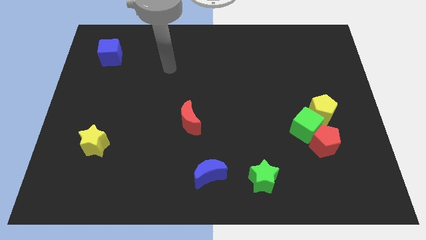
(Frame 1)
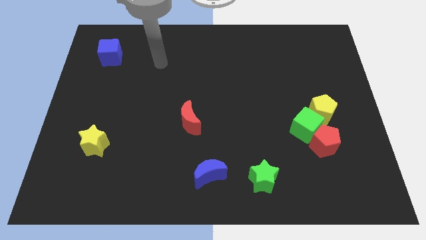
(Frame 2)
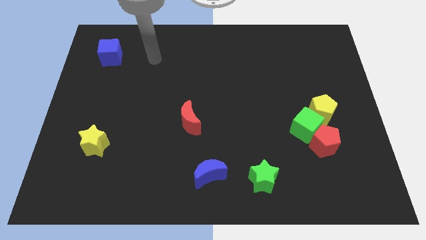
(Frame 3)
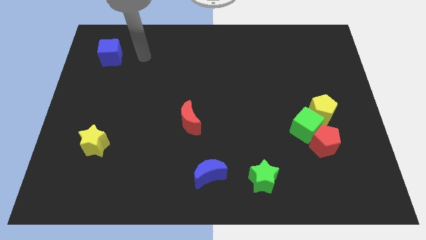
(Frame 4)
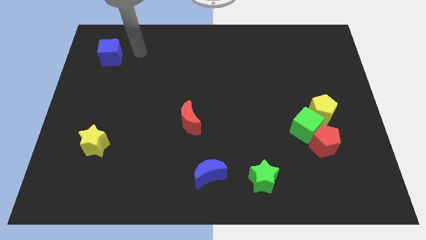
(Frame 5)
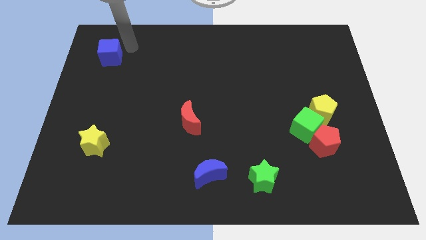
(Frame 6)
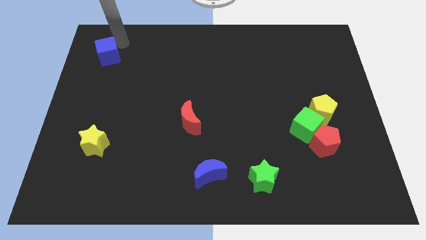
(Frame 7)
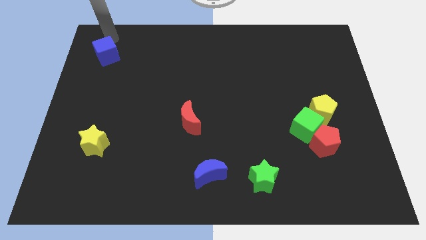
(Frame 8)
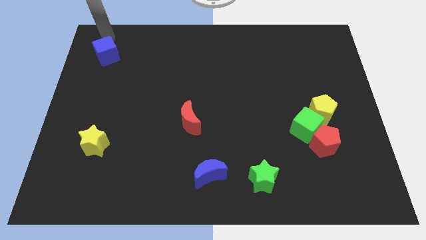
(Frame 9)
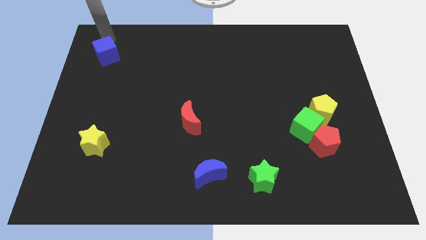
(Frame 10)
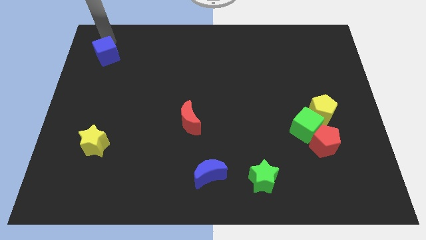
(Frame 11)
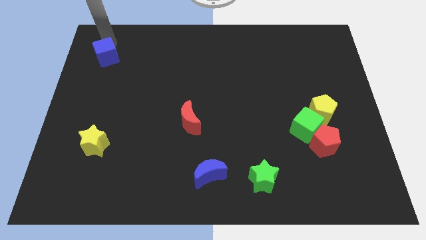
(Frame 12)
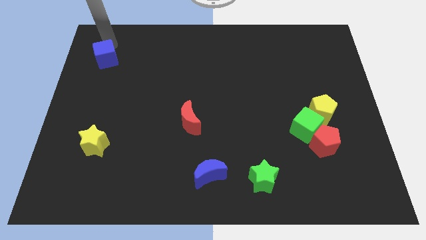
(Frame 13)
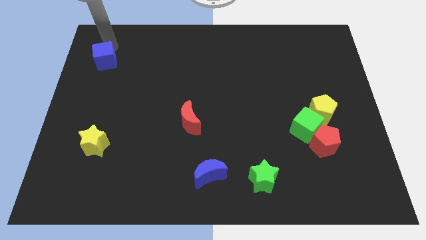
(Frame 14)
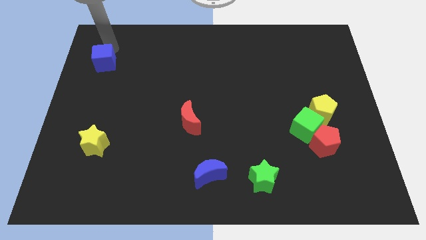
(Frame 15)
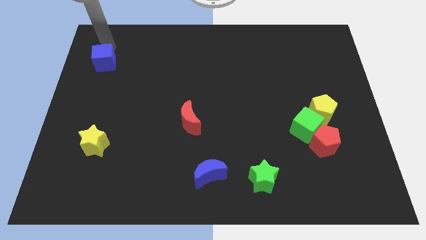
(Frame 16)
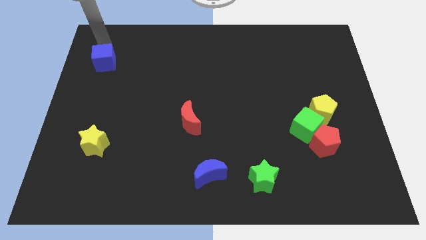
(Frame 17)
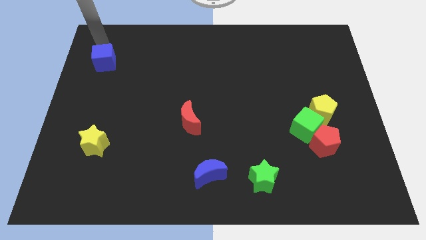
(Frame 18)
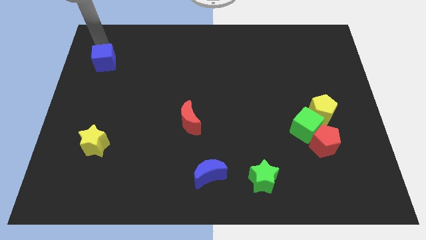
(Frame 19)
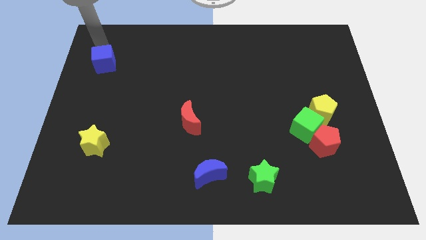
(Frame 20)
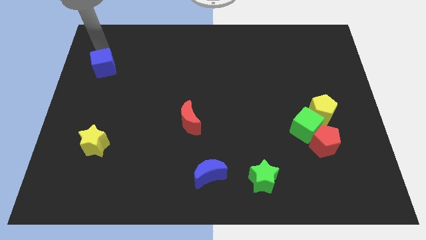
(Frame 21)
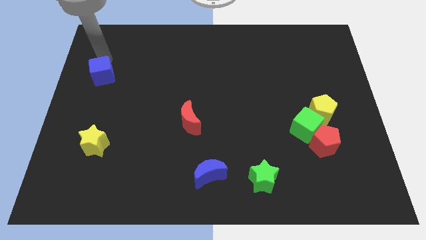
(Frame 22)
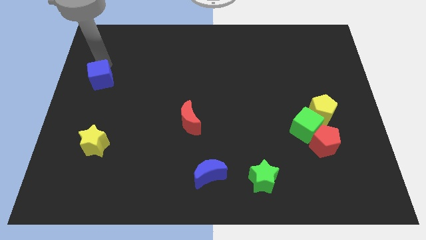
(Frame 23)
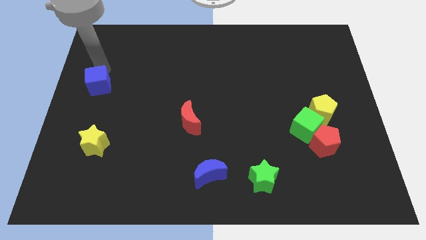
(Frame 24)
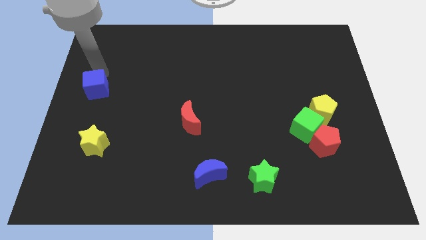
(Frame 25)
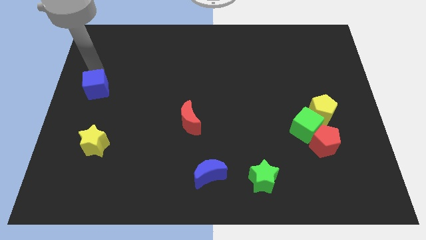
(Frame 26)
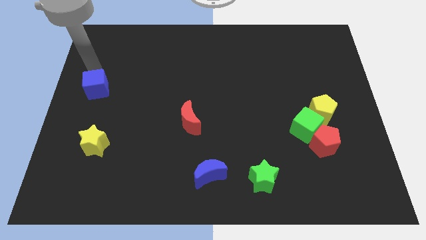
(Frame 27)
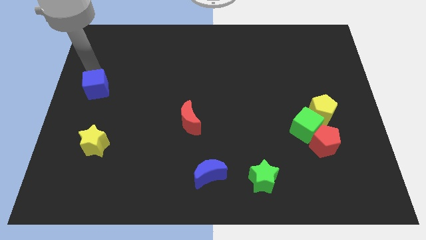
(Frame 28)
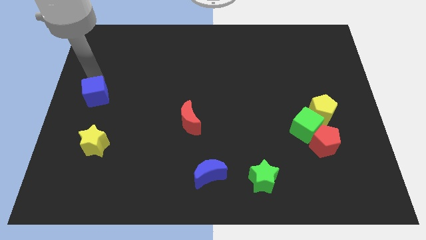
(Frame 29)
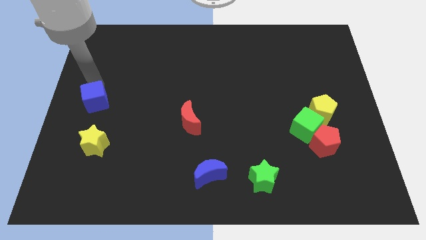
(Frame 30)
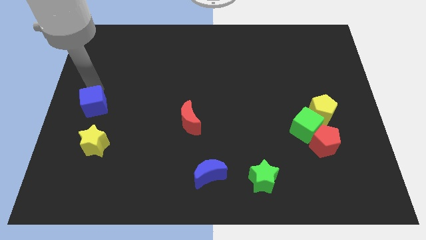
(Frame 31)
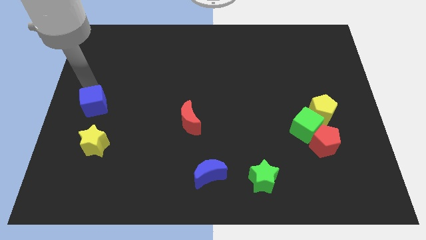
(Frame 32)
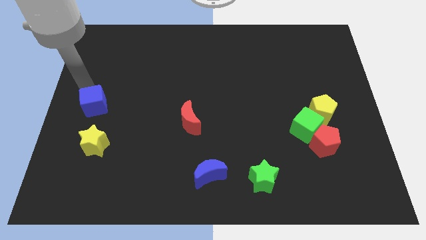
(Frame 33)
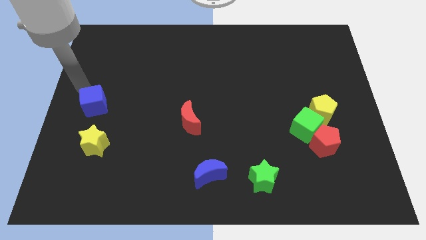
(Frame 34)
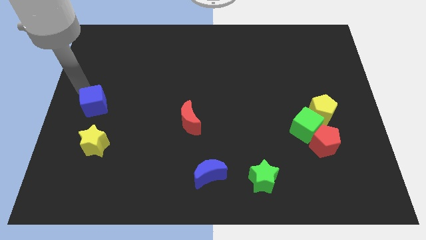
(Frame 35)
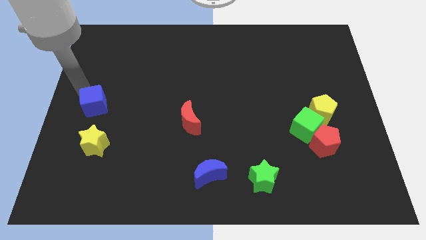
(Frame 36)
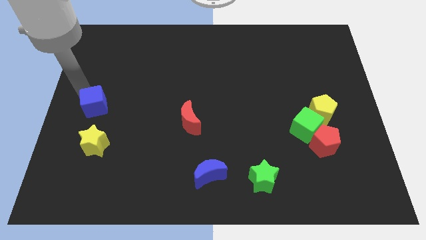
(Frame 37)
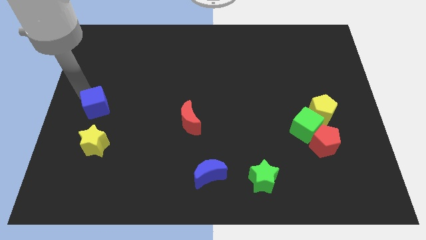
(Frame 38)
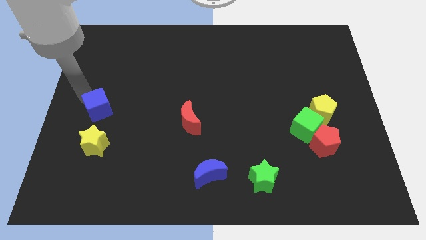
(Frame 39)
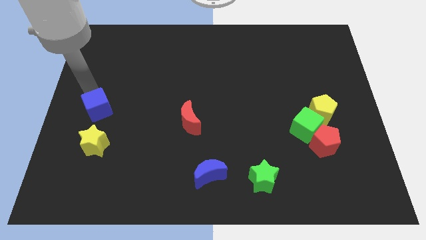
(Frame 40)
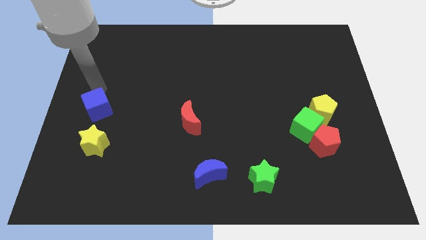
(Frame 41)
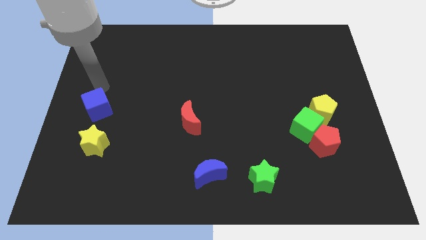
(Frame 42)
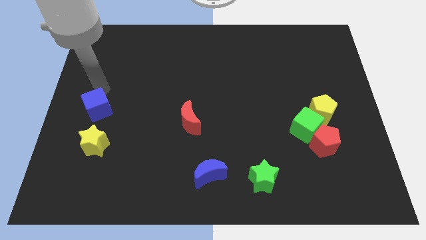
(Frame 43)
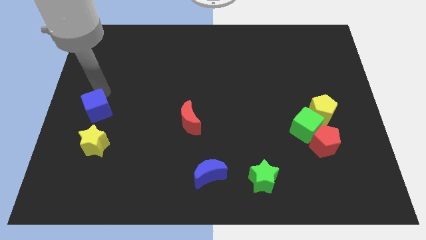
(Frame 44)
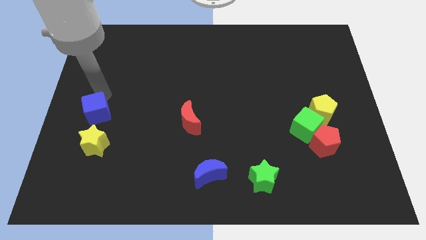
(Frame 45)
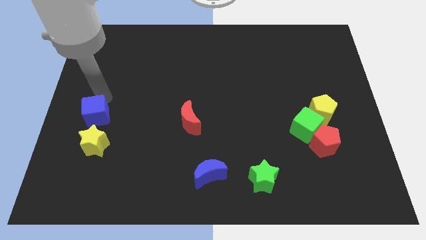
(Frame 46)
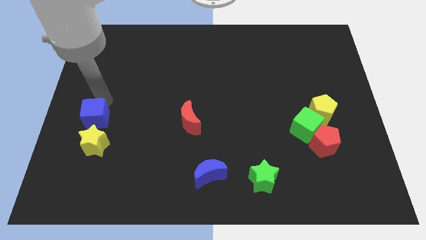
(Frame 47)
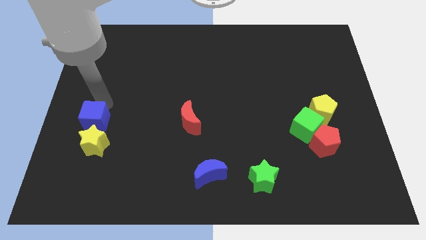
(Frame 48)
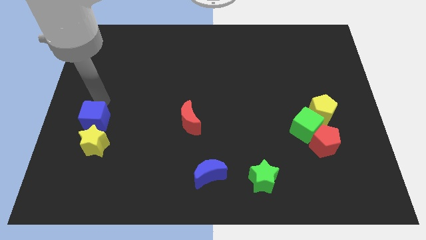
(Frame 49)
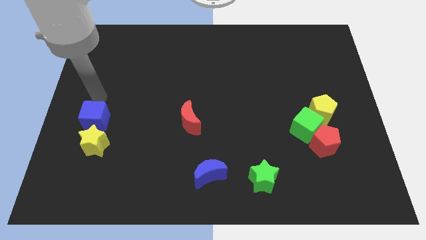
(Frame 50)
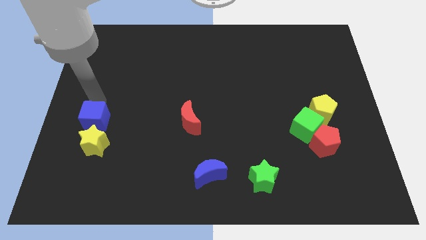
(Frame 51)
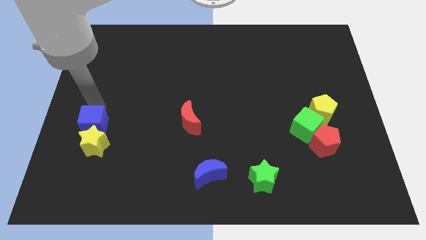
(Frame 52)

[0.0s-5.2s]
put the blue cube to the yellow star

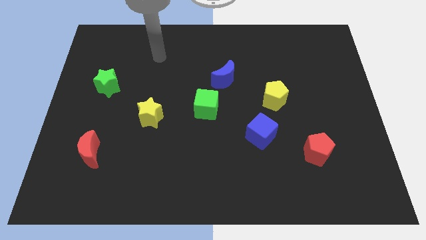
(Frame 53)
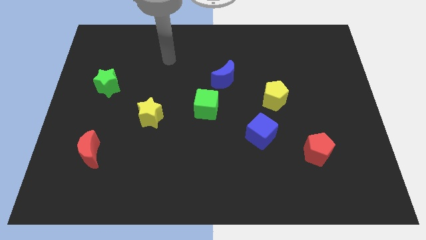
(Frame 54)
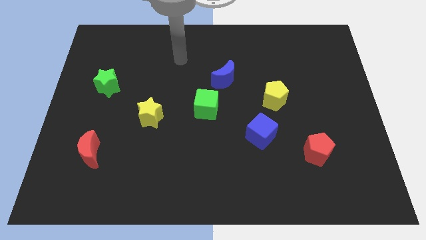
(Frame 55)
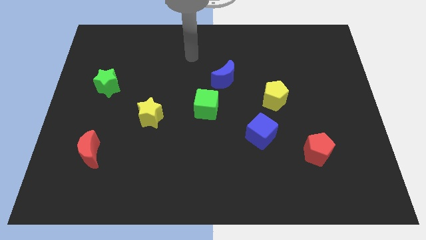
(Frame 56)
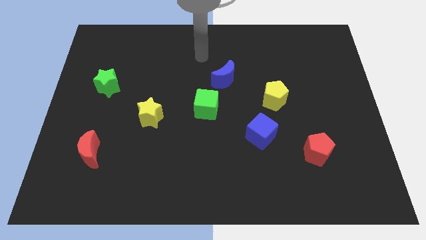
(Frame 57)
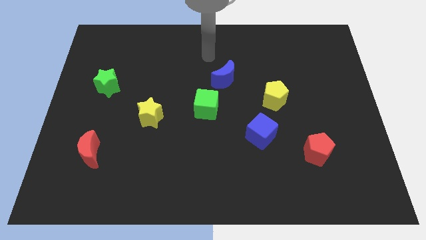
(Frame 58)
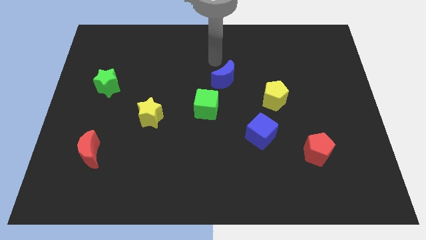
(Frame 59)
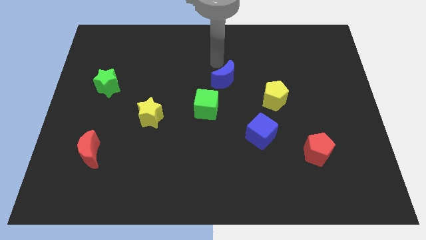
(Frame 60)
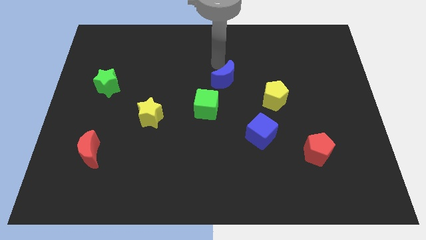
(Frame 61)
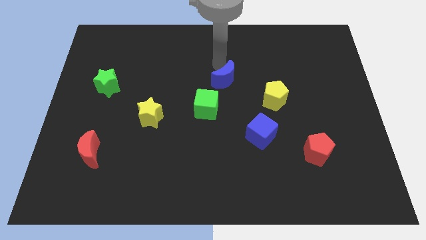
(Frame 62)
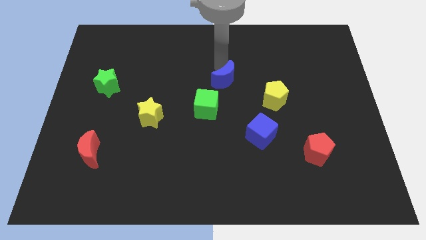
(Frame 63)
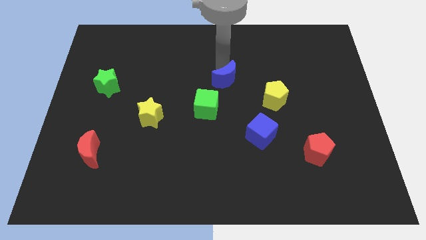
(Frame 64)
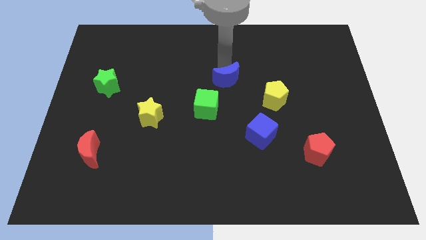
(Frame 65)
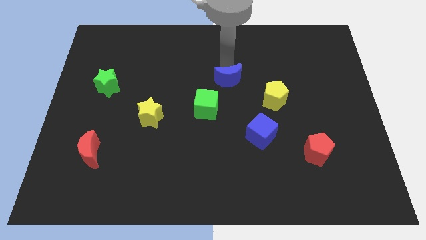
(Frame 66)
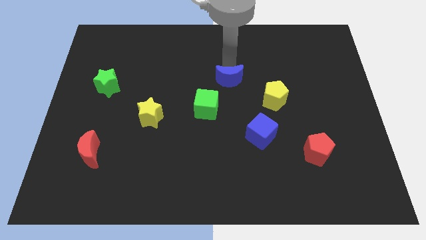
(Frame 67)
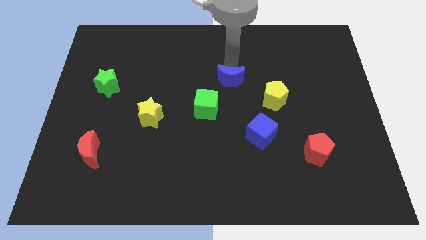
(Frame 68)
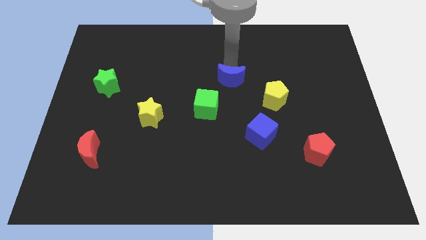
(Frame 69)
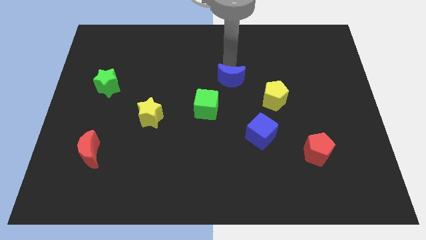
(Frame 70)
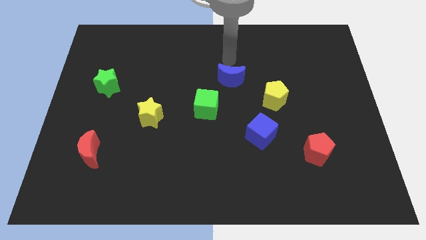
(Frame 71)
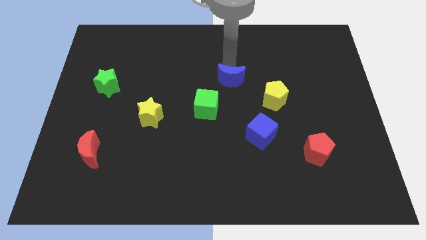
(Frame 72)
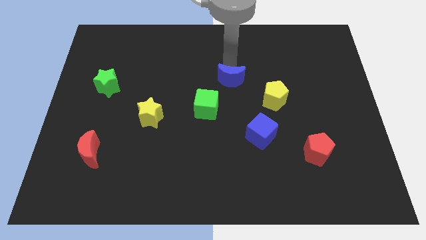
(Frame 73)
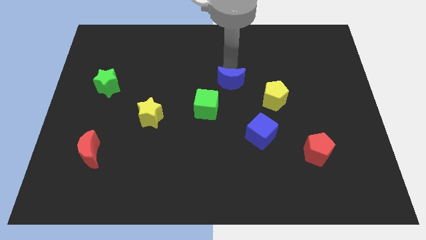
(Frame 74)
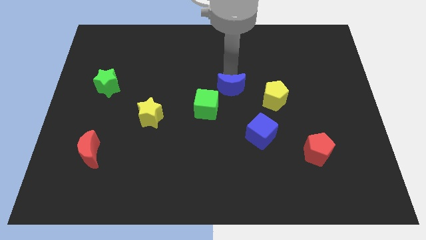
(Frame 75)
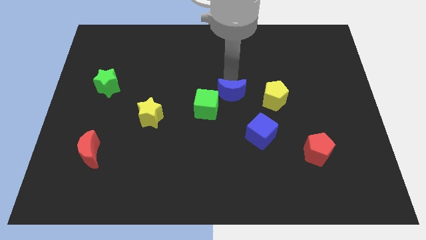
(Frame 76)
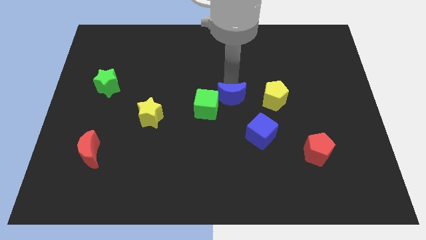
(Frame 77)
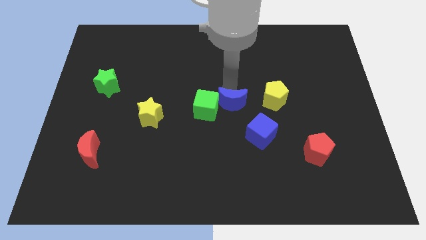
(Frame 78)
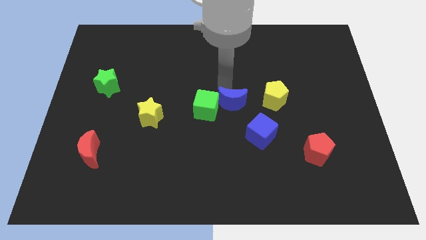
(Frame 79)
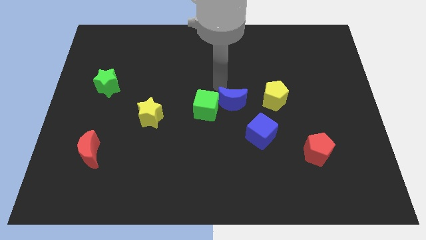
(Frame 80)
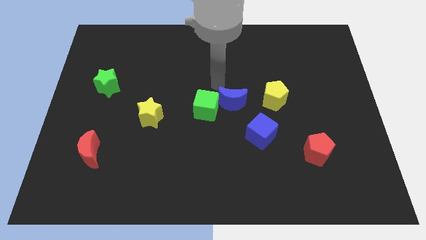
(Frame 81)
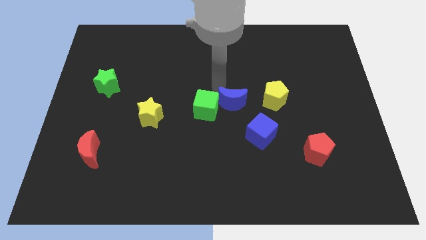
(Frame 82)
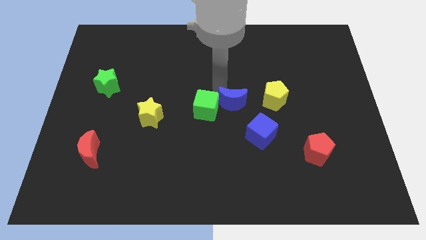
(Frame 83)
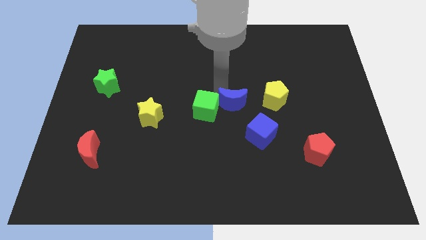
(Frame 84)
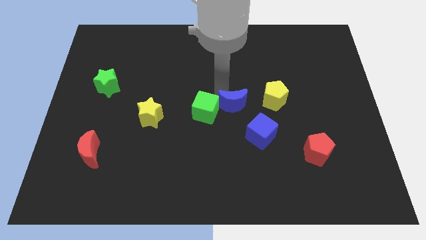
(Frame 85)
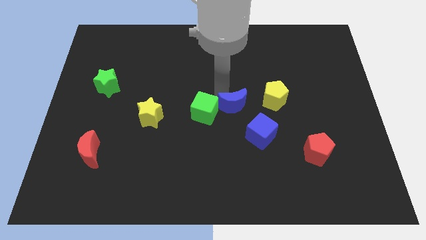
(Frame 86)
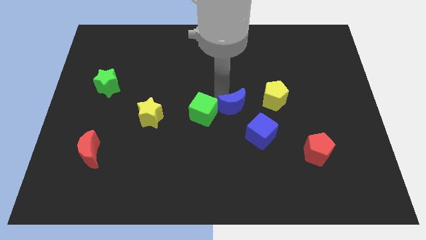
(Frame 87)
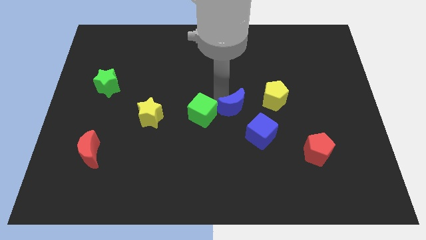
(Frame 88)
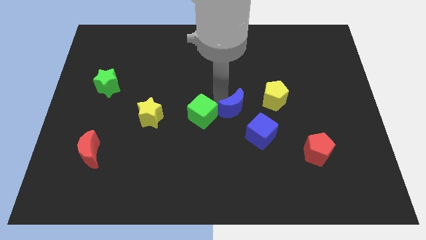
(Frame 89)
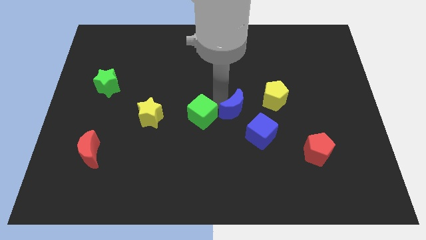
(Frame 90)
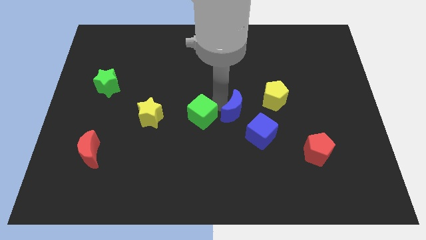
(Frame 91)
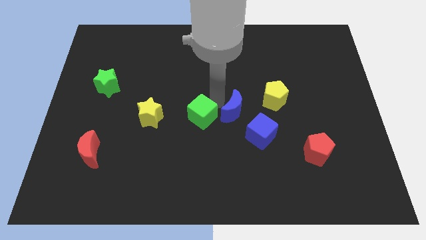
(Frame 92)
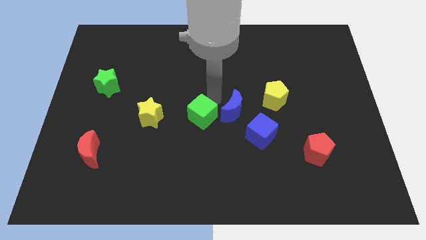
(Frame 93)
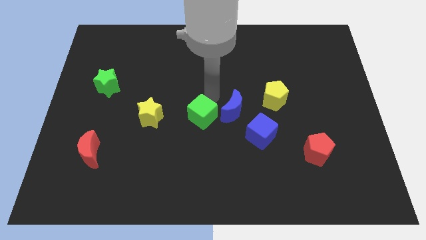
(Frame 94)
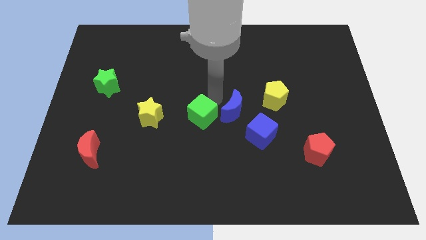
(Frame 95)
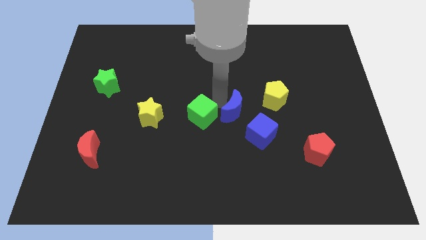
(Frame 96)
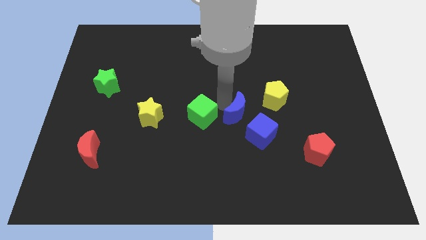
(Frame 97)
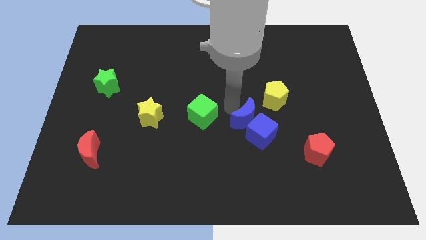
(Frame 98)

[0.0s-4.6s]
push the blue moon close to the blue cube
